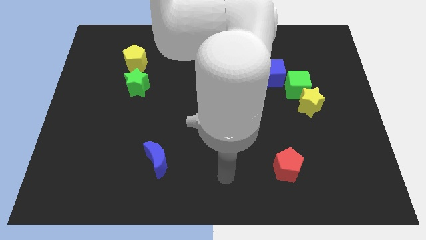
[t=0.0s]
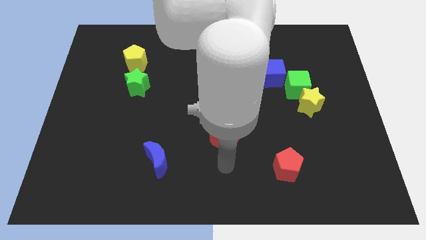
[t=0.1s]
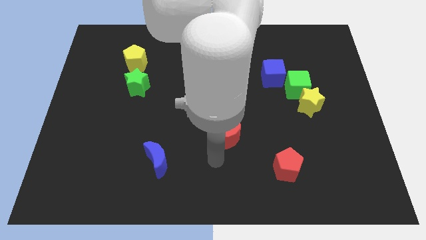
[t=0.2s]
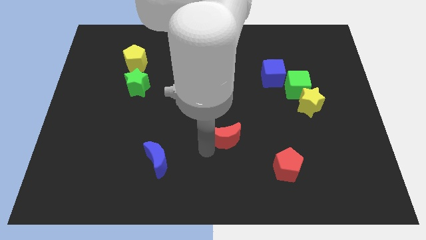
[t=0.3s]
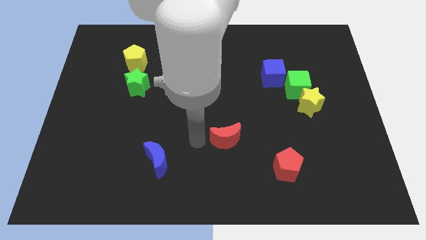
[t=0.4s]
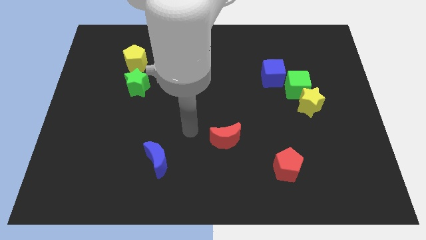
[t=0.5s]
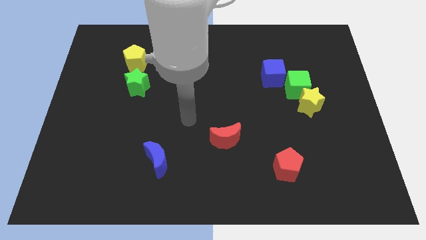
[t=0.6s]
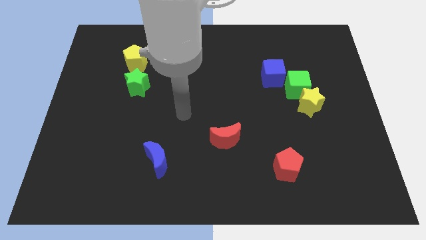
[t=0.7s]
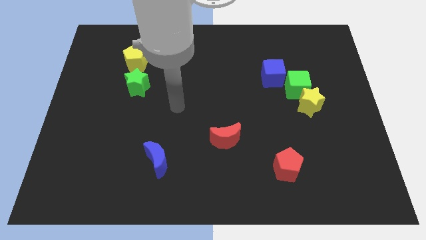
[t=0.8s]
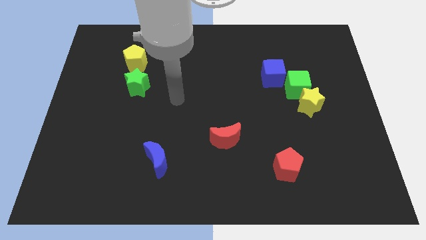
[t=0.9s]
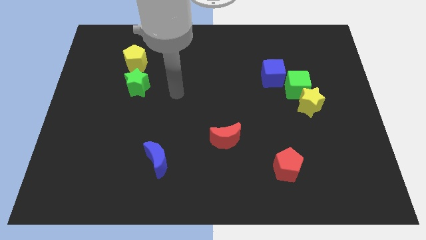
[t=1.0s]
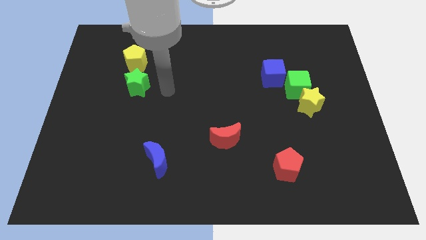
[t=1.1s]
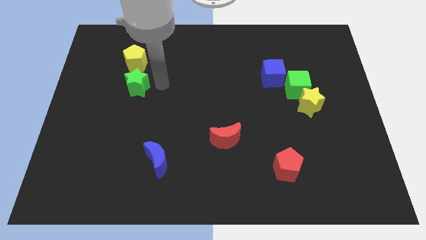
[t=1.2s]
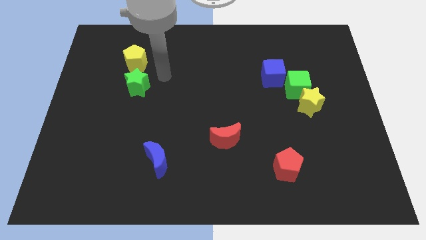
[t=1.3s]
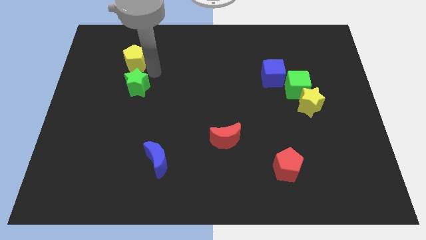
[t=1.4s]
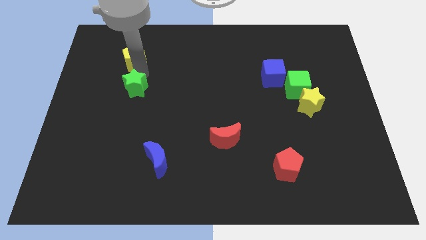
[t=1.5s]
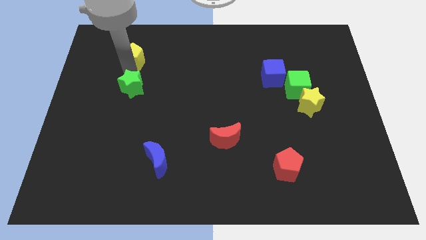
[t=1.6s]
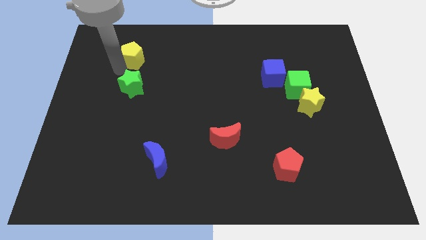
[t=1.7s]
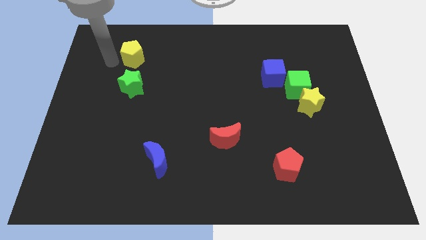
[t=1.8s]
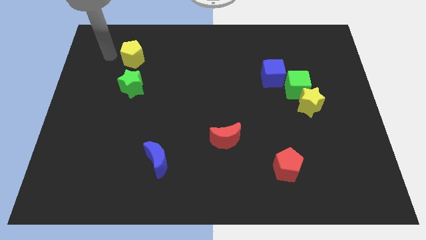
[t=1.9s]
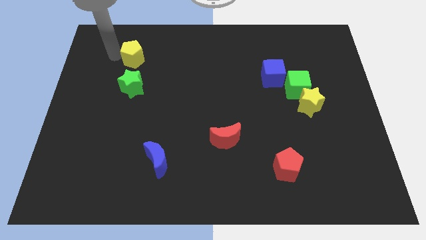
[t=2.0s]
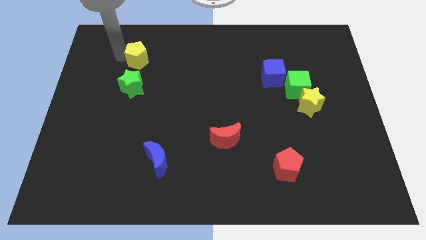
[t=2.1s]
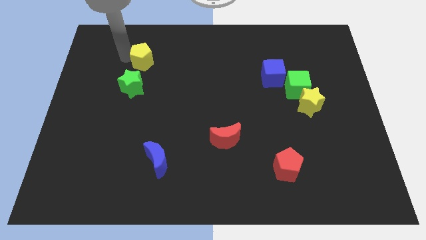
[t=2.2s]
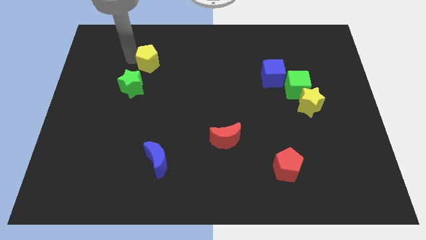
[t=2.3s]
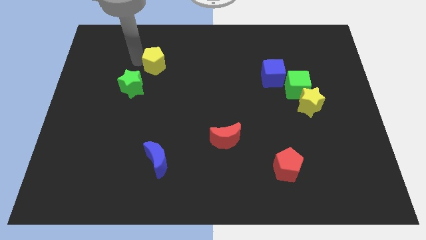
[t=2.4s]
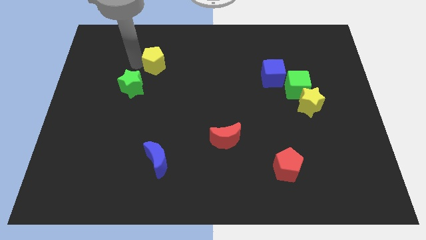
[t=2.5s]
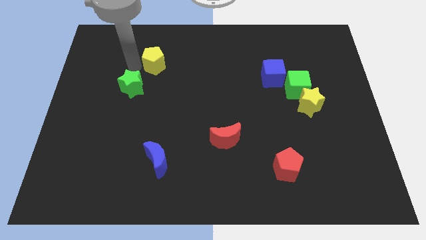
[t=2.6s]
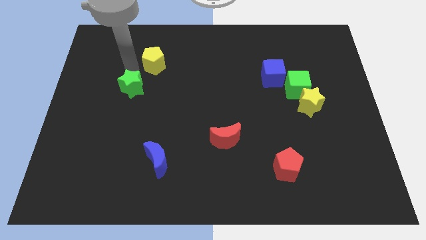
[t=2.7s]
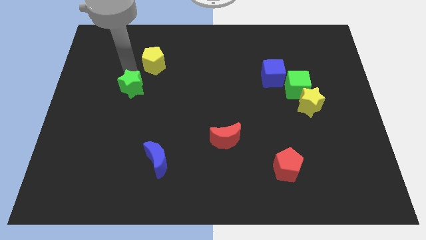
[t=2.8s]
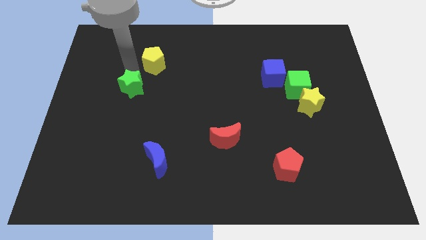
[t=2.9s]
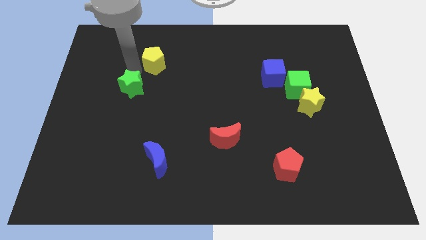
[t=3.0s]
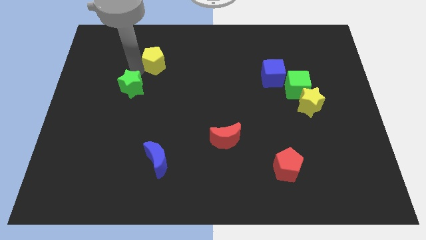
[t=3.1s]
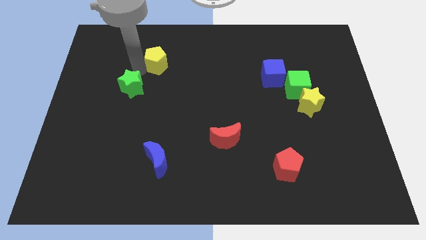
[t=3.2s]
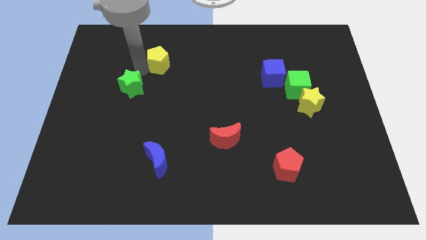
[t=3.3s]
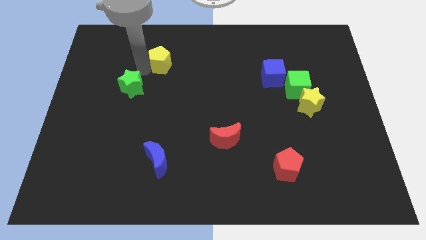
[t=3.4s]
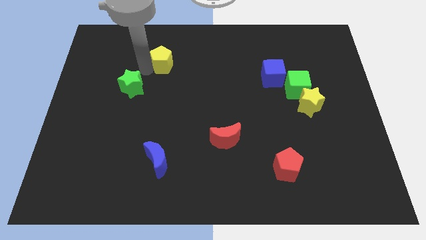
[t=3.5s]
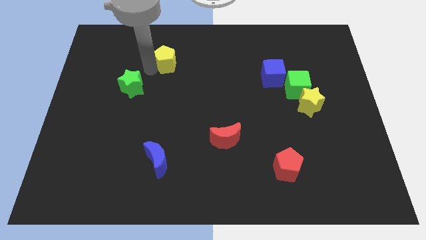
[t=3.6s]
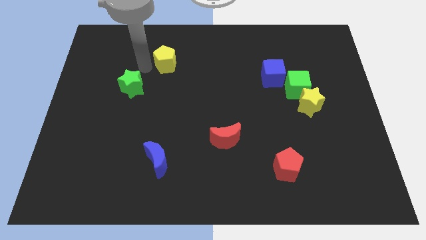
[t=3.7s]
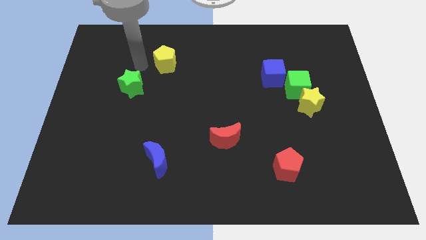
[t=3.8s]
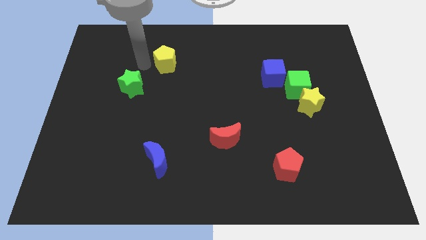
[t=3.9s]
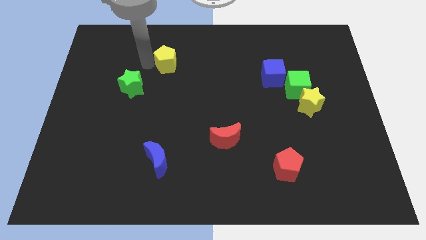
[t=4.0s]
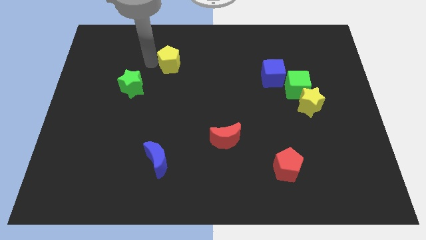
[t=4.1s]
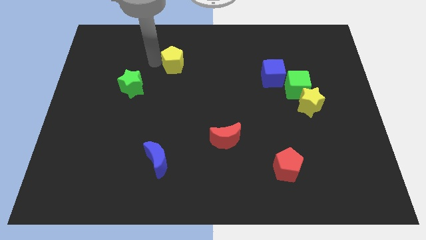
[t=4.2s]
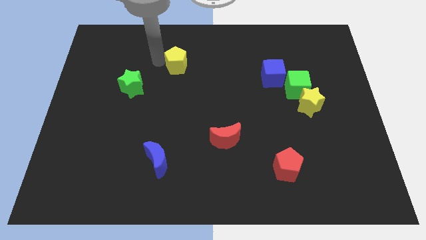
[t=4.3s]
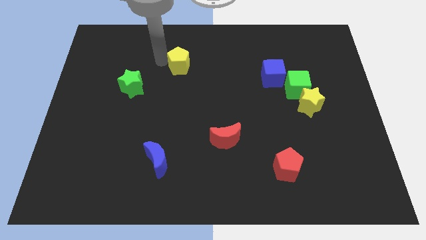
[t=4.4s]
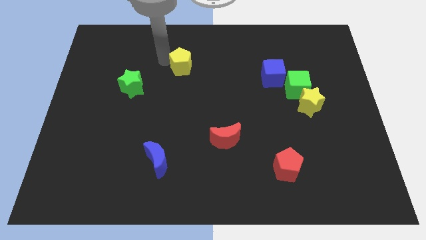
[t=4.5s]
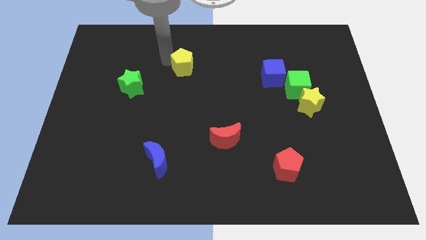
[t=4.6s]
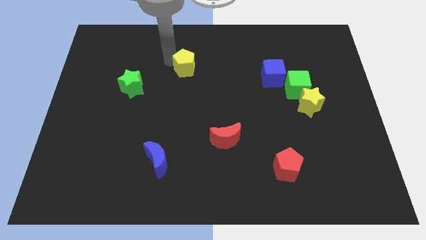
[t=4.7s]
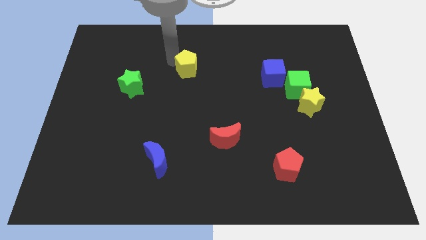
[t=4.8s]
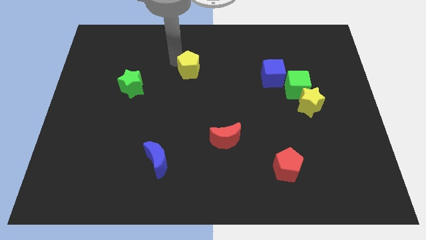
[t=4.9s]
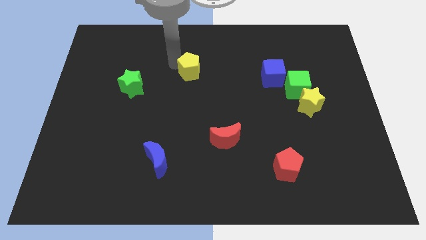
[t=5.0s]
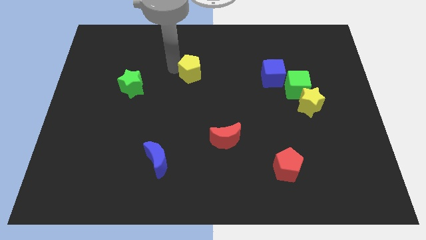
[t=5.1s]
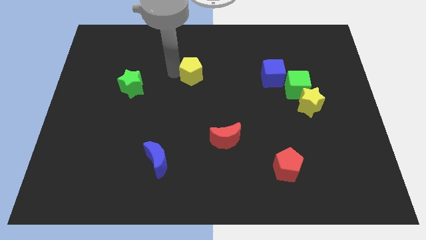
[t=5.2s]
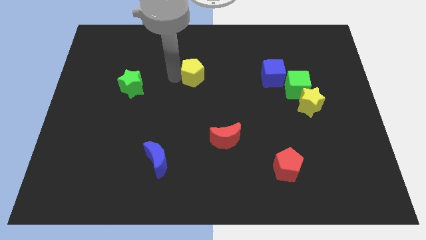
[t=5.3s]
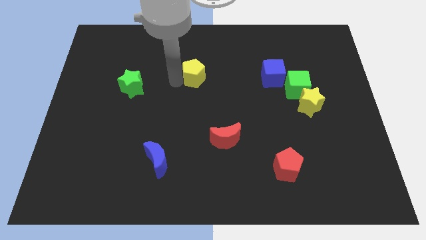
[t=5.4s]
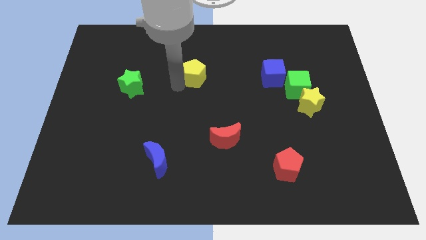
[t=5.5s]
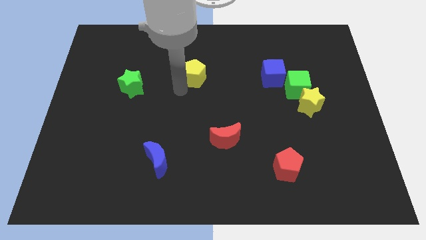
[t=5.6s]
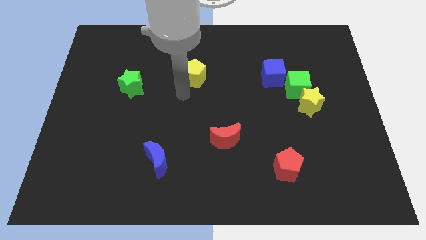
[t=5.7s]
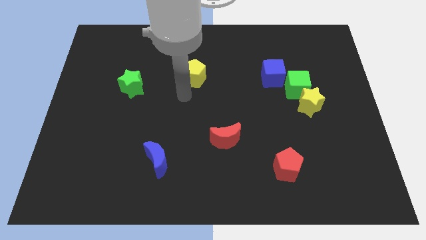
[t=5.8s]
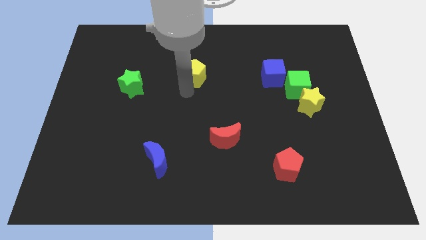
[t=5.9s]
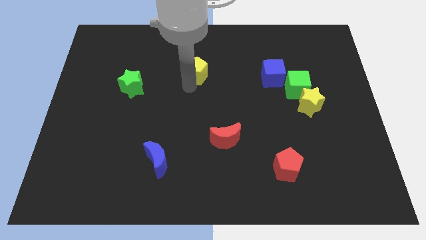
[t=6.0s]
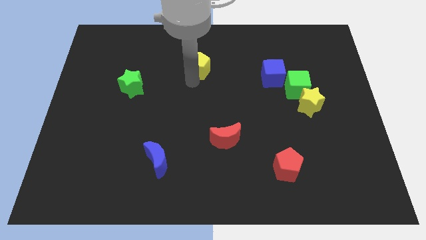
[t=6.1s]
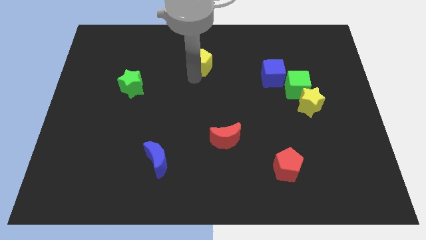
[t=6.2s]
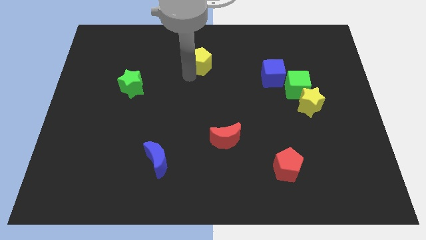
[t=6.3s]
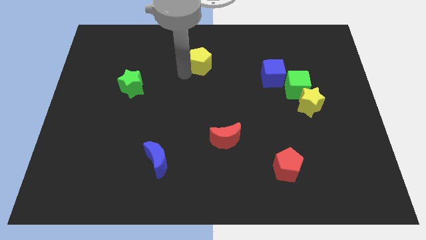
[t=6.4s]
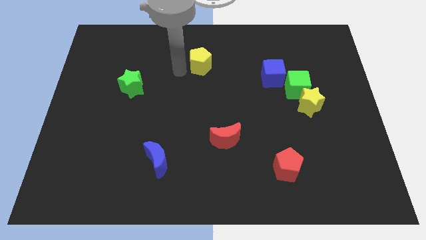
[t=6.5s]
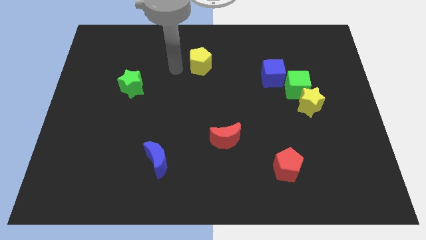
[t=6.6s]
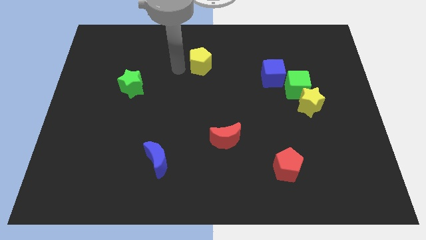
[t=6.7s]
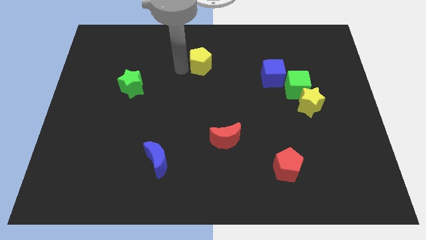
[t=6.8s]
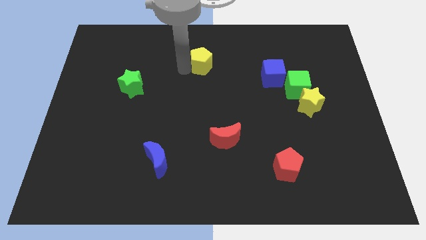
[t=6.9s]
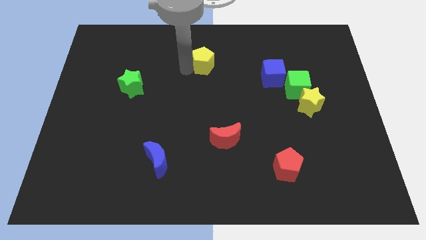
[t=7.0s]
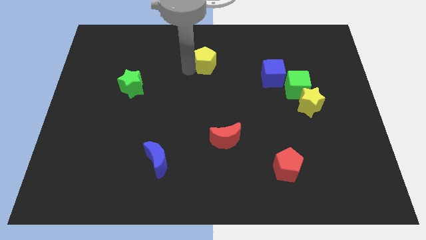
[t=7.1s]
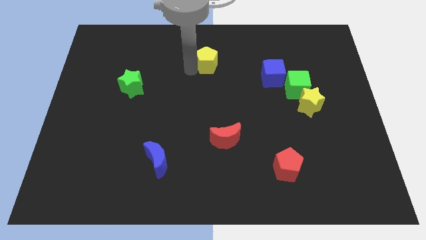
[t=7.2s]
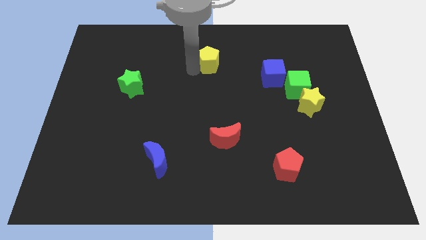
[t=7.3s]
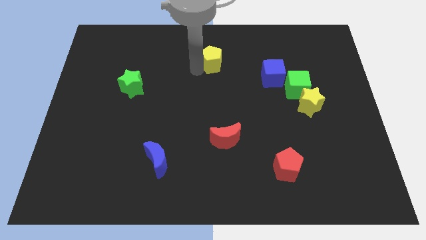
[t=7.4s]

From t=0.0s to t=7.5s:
push the yellow pentagon to the right

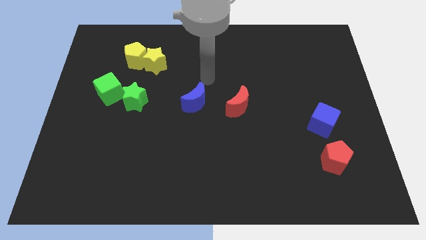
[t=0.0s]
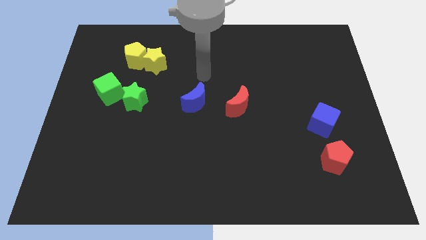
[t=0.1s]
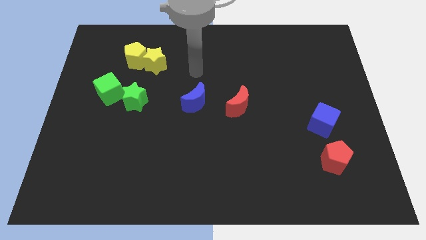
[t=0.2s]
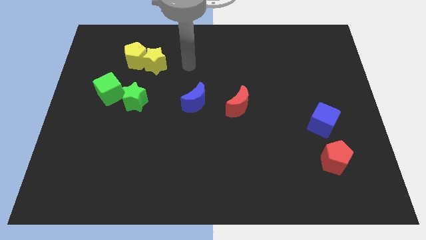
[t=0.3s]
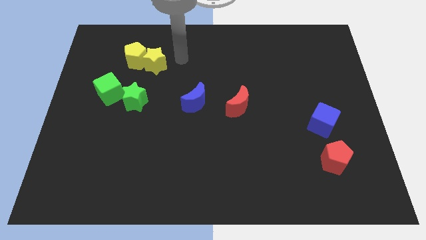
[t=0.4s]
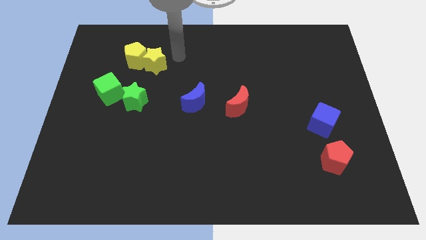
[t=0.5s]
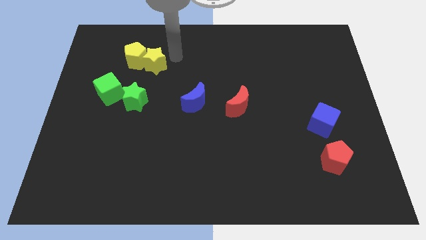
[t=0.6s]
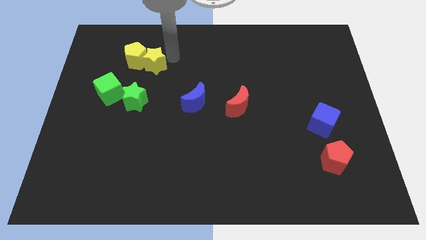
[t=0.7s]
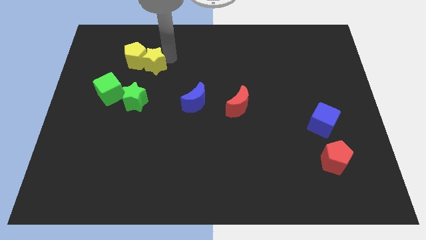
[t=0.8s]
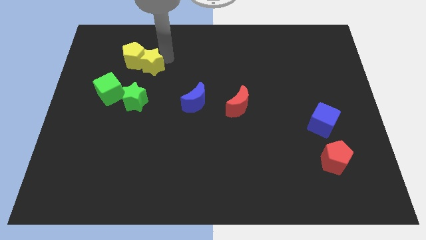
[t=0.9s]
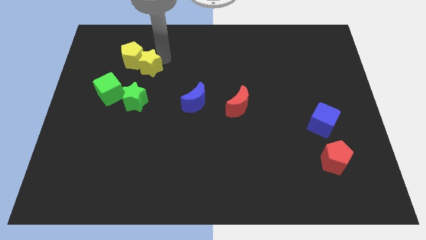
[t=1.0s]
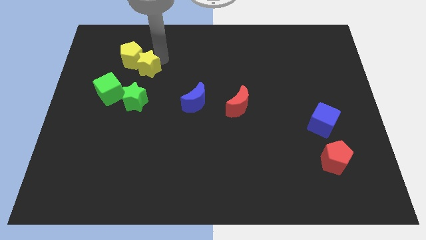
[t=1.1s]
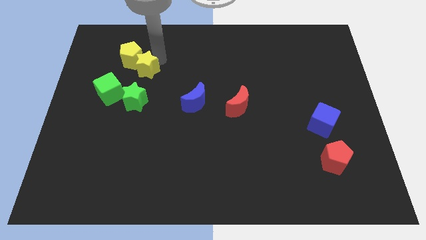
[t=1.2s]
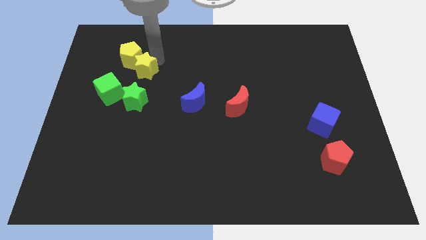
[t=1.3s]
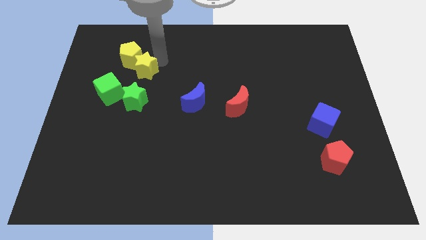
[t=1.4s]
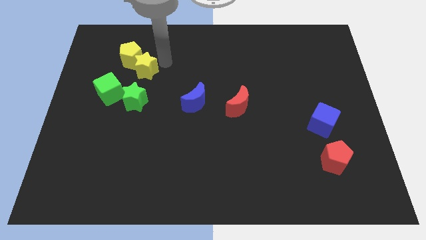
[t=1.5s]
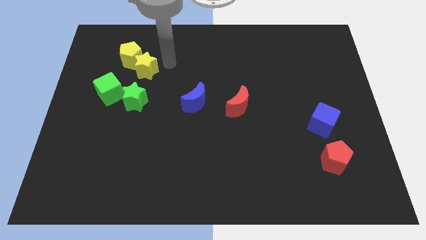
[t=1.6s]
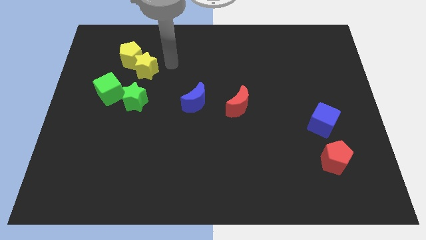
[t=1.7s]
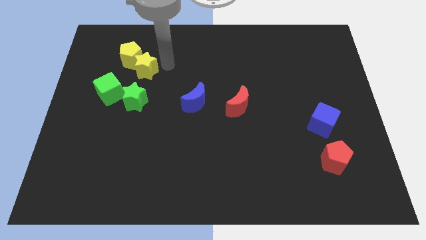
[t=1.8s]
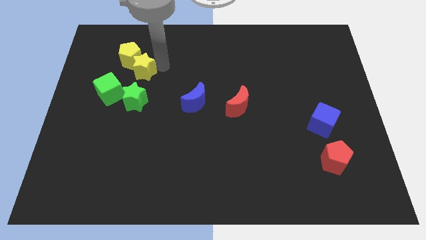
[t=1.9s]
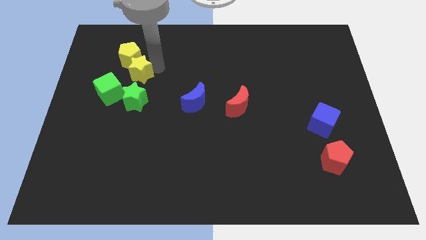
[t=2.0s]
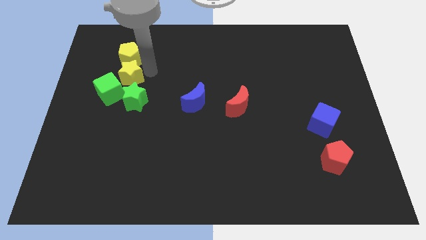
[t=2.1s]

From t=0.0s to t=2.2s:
slide the yellow star a little diagonally down and left
